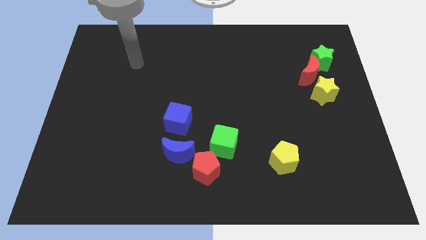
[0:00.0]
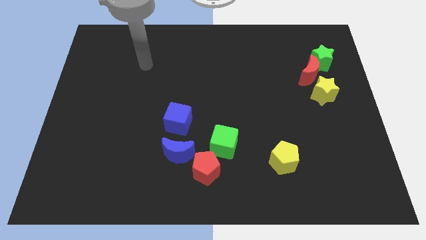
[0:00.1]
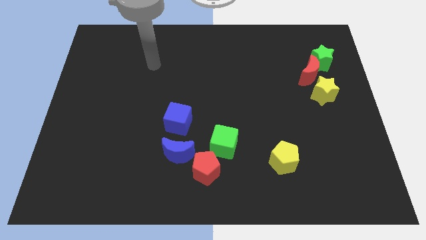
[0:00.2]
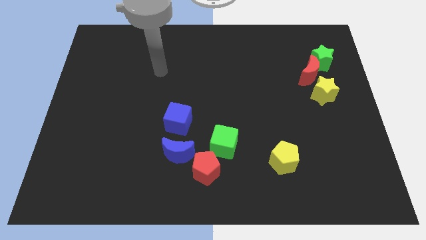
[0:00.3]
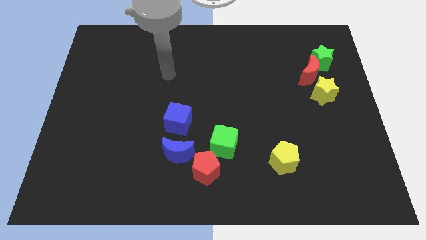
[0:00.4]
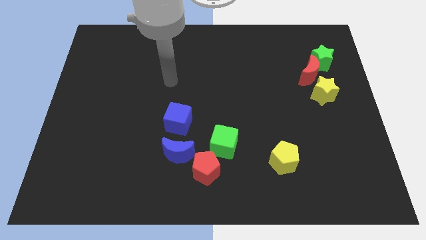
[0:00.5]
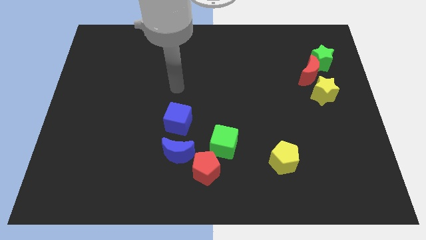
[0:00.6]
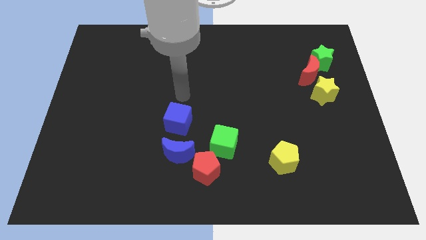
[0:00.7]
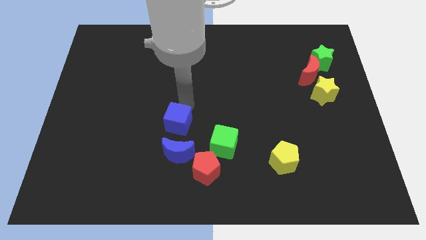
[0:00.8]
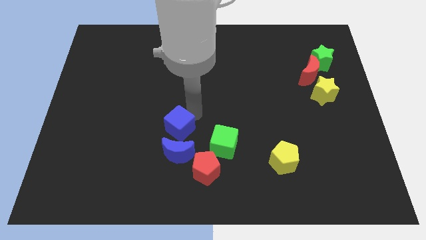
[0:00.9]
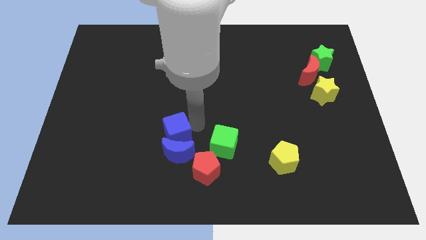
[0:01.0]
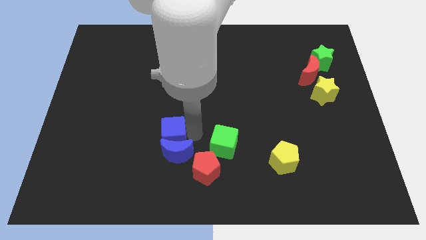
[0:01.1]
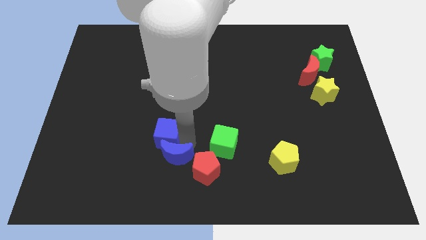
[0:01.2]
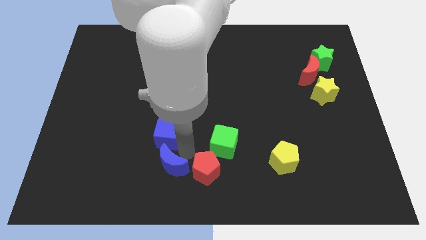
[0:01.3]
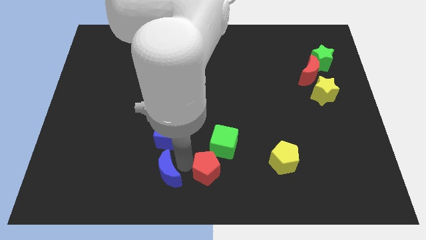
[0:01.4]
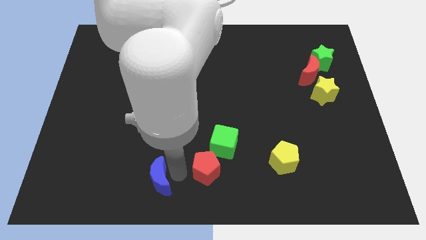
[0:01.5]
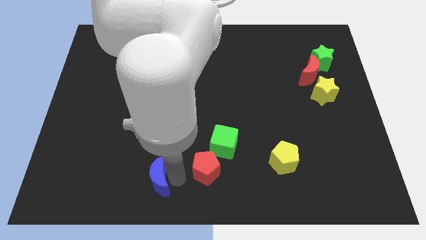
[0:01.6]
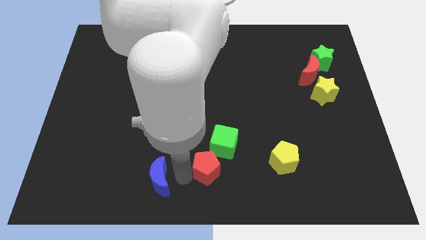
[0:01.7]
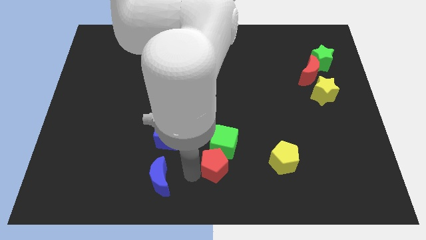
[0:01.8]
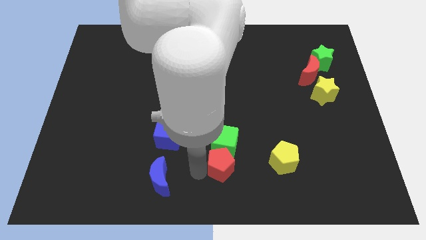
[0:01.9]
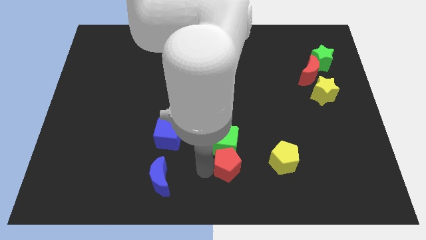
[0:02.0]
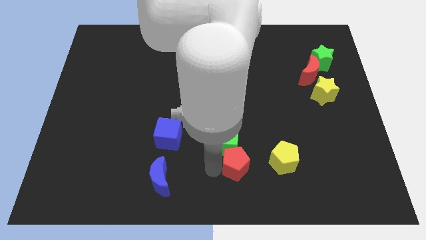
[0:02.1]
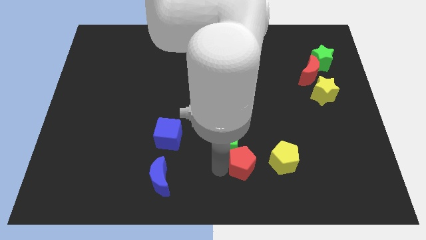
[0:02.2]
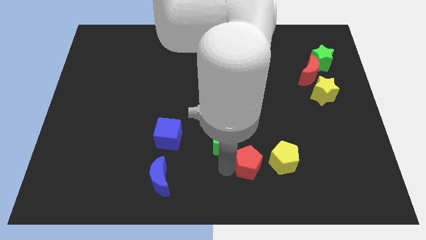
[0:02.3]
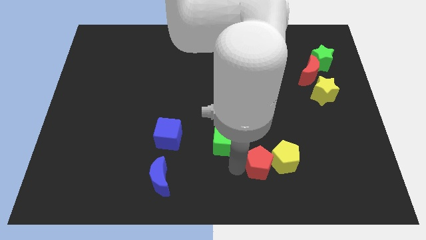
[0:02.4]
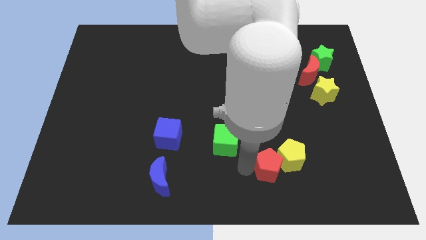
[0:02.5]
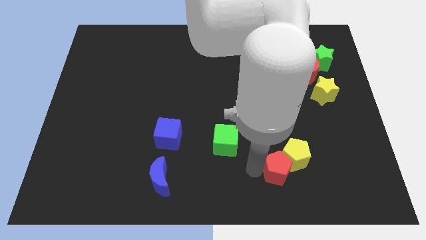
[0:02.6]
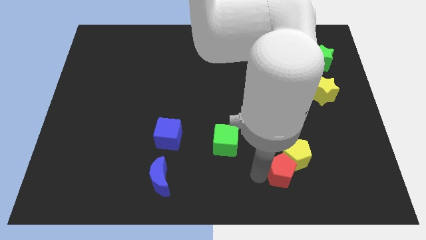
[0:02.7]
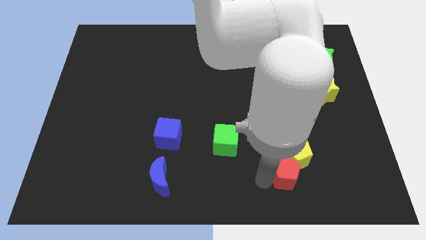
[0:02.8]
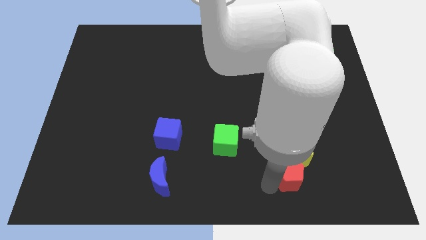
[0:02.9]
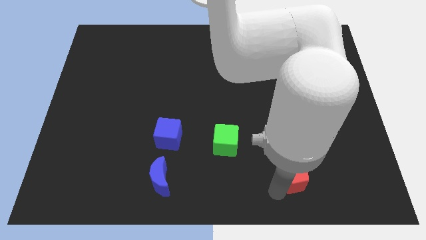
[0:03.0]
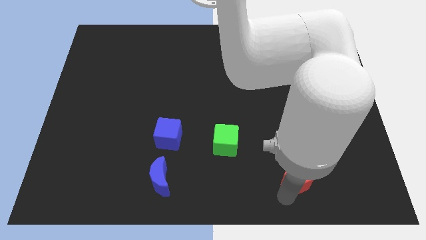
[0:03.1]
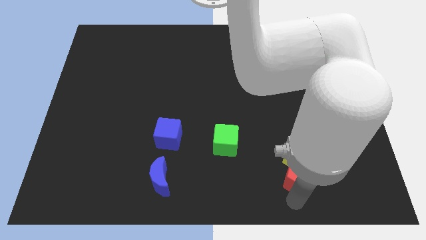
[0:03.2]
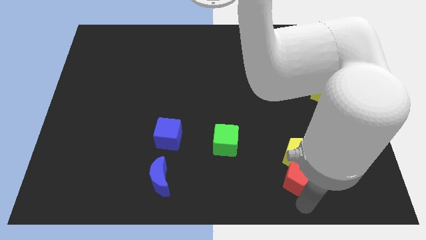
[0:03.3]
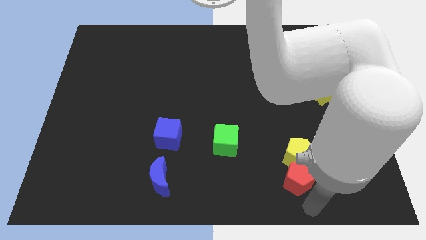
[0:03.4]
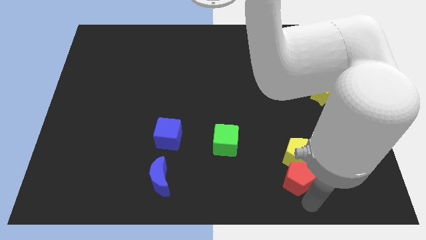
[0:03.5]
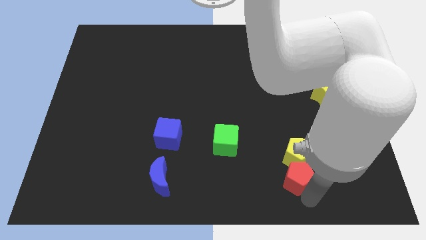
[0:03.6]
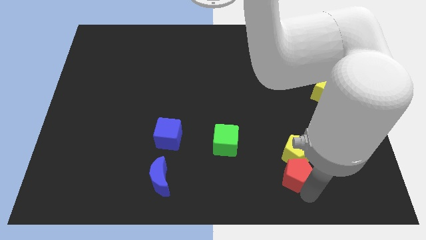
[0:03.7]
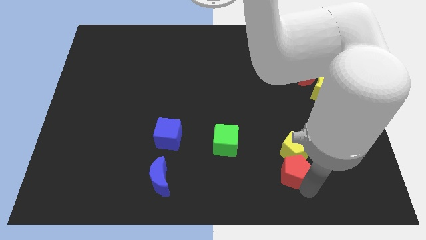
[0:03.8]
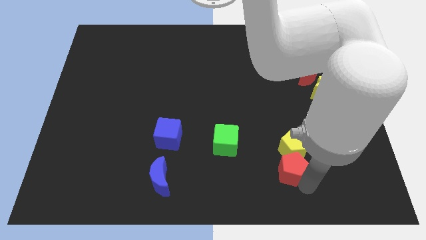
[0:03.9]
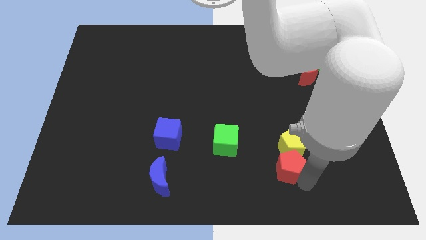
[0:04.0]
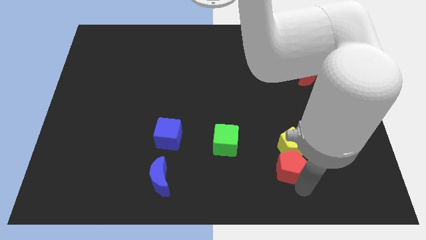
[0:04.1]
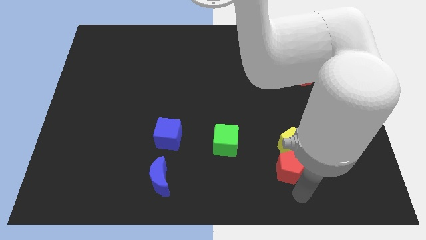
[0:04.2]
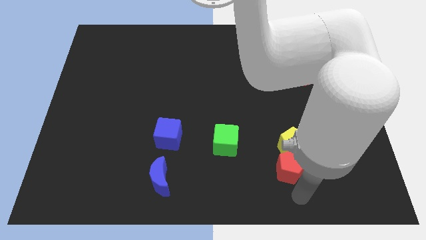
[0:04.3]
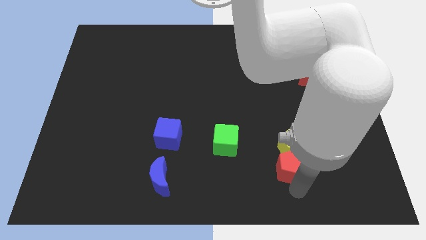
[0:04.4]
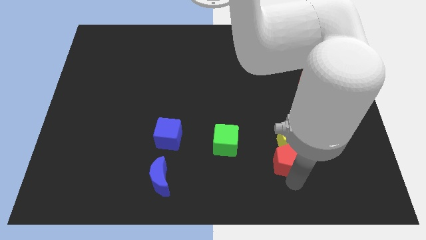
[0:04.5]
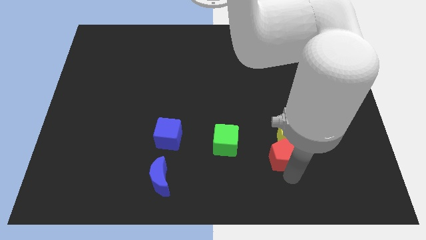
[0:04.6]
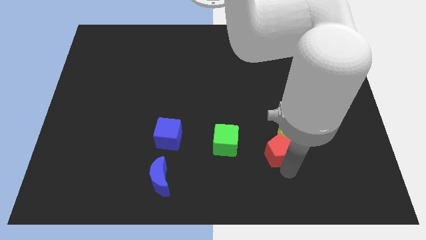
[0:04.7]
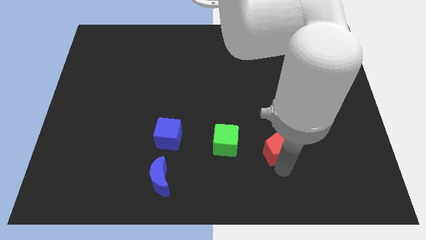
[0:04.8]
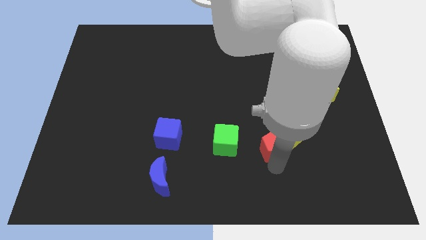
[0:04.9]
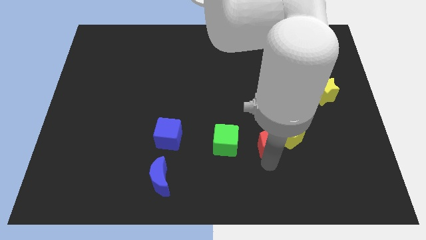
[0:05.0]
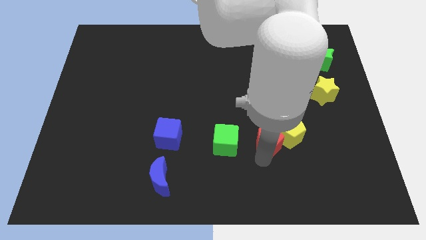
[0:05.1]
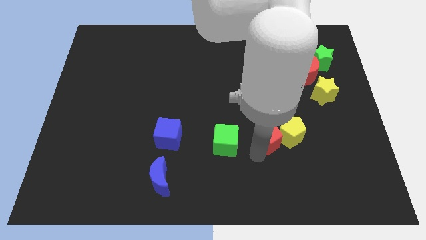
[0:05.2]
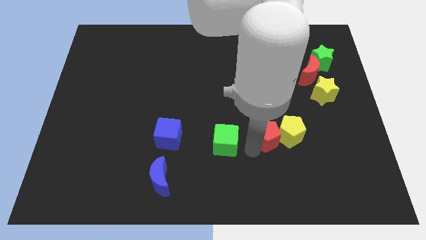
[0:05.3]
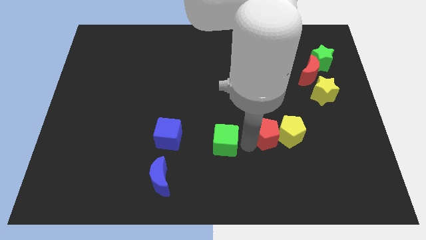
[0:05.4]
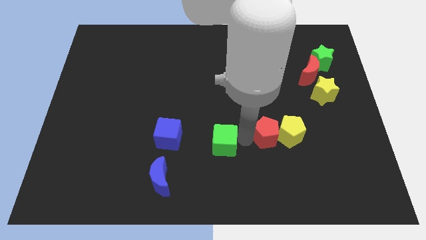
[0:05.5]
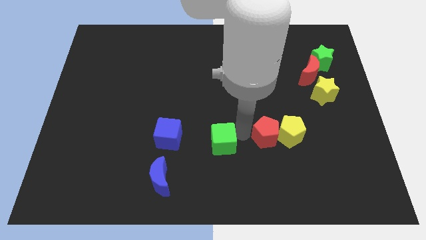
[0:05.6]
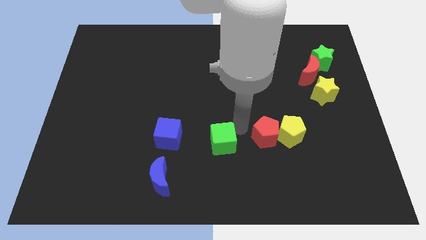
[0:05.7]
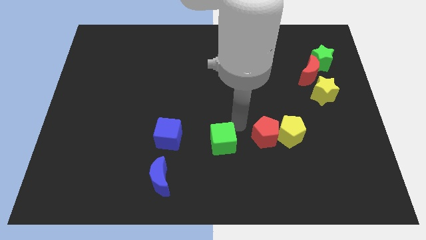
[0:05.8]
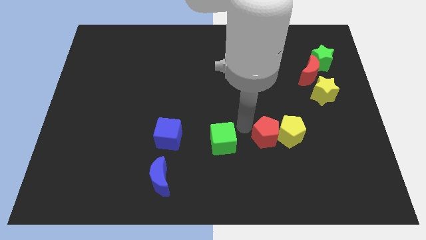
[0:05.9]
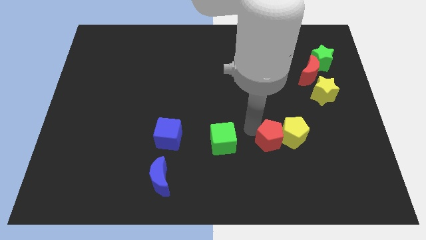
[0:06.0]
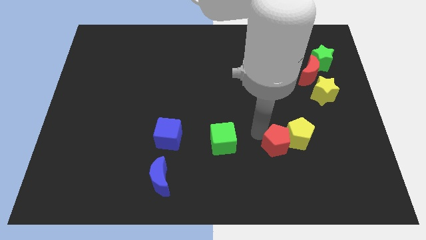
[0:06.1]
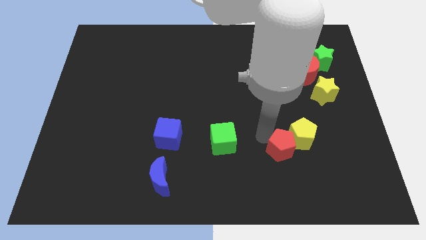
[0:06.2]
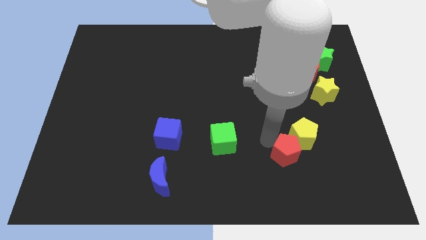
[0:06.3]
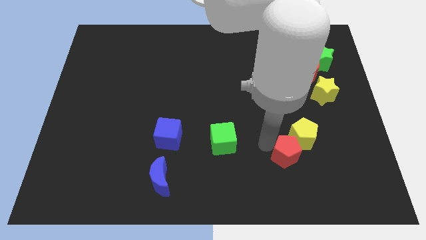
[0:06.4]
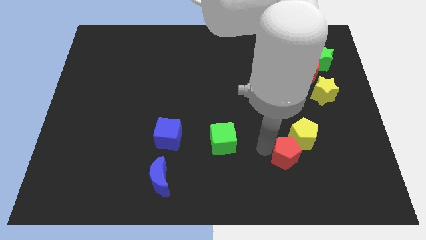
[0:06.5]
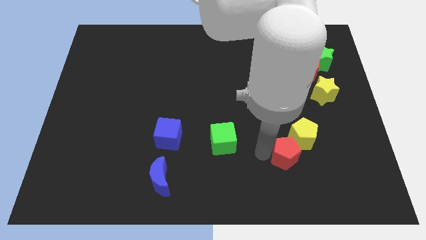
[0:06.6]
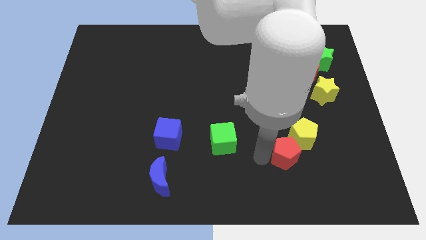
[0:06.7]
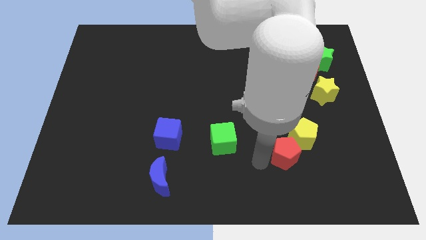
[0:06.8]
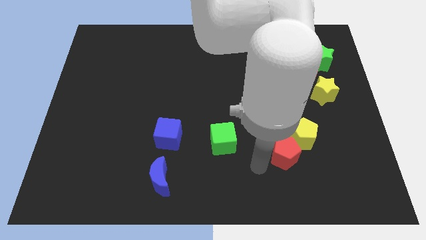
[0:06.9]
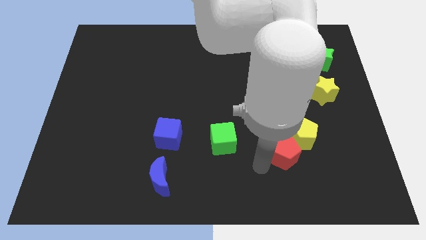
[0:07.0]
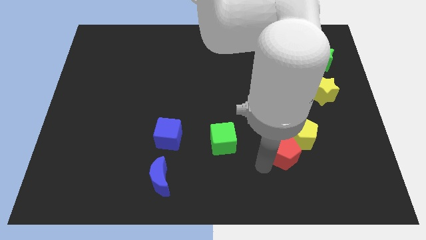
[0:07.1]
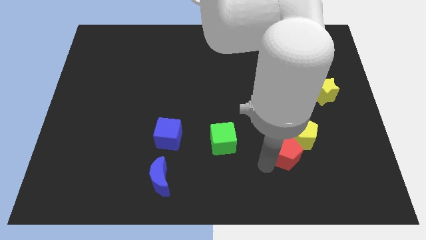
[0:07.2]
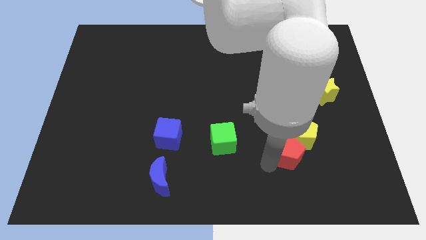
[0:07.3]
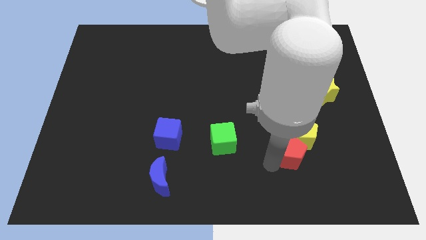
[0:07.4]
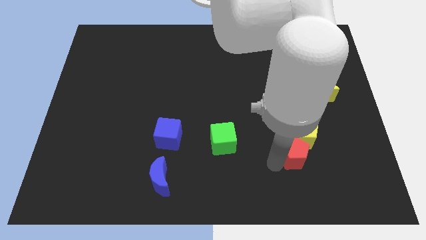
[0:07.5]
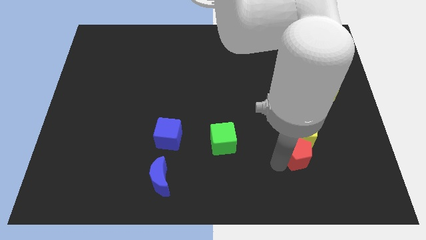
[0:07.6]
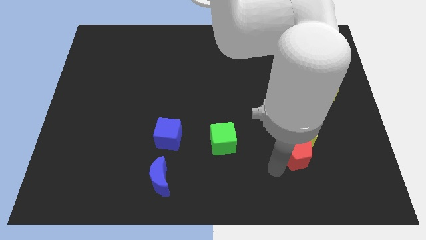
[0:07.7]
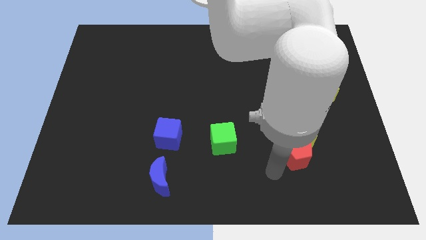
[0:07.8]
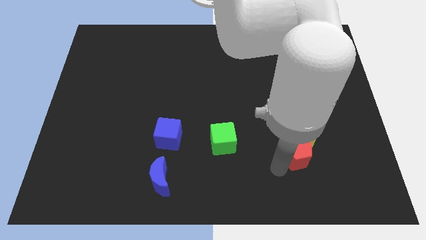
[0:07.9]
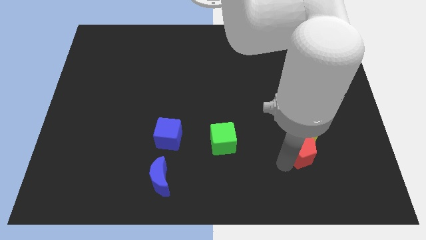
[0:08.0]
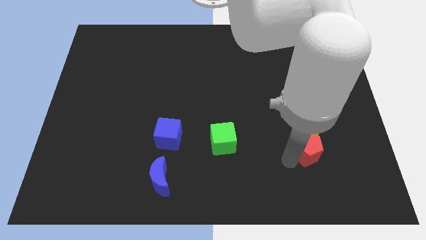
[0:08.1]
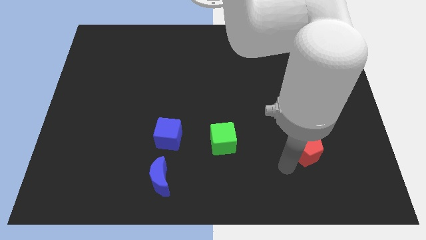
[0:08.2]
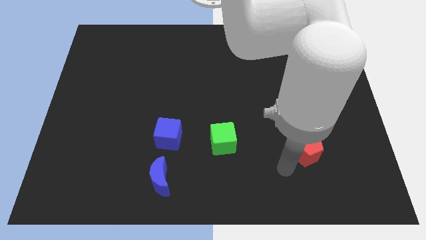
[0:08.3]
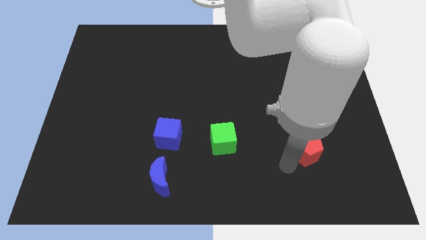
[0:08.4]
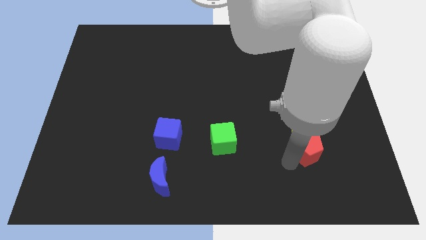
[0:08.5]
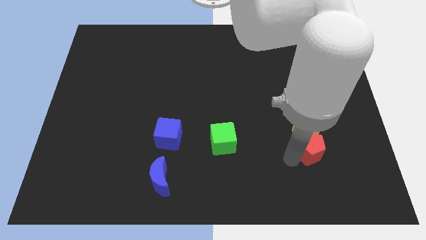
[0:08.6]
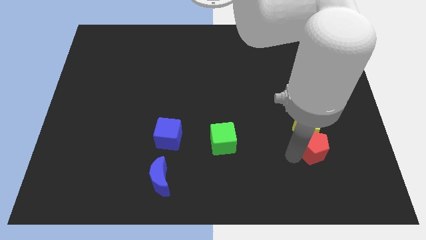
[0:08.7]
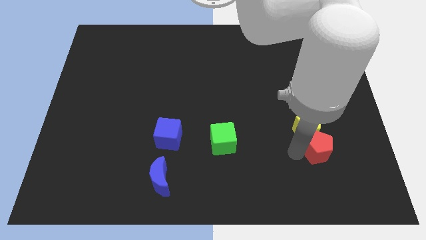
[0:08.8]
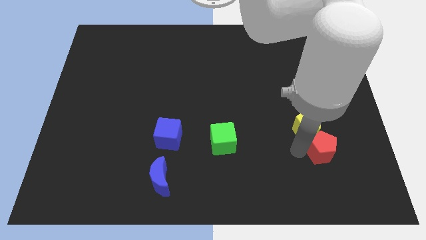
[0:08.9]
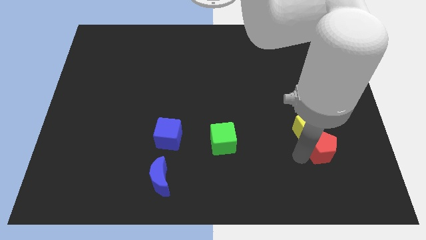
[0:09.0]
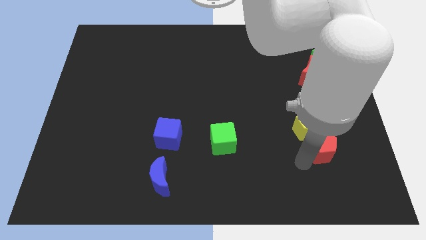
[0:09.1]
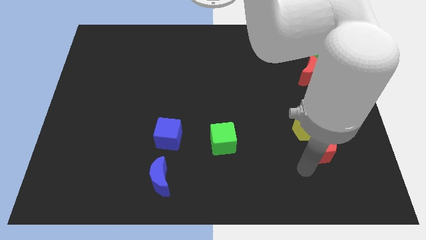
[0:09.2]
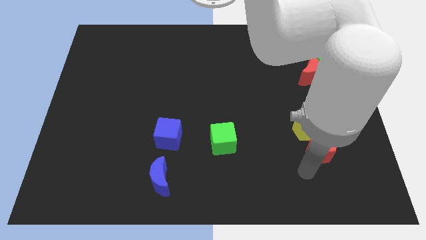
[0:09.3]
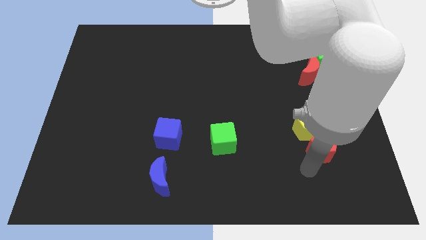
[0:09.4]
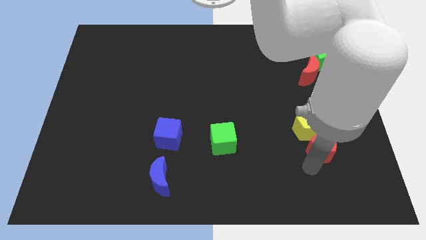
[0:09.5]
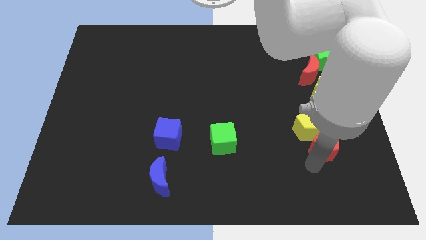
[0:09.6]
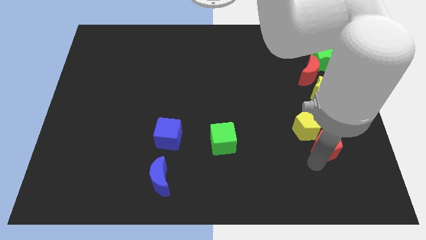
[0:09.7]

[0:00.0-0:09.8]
put the red pentagon to the bottom of the yellow star
